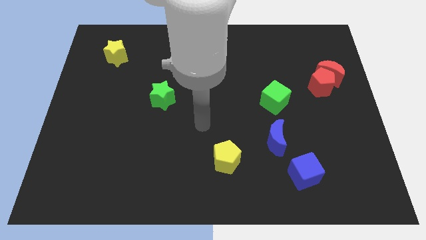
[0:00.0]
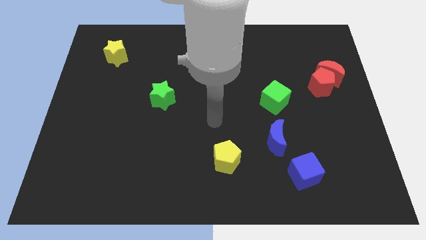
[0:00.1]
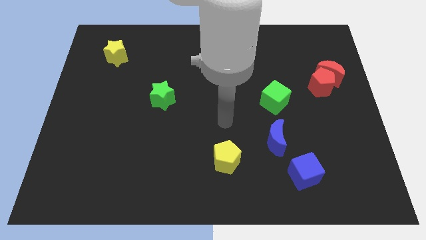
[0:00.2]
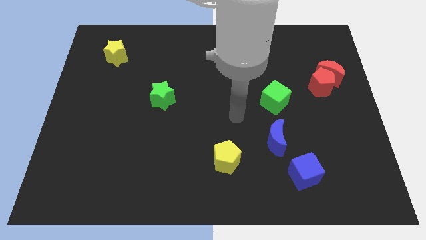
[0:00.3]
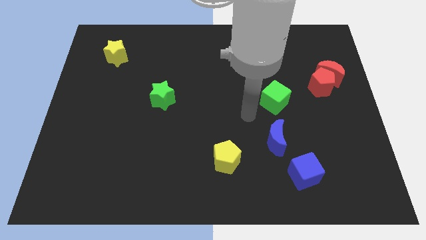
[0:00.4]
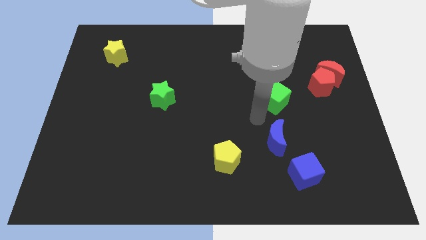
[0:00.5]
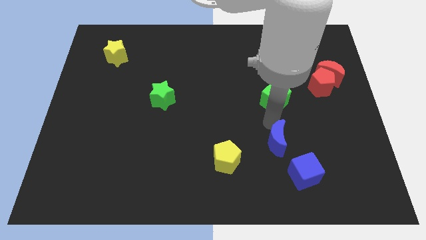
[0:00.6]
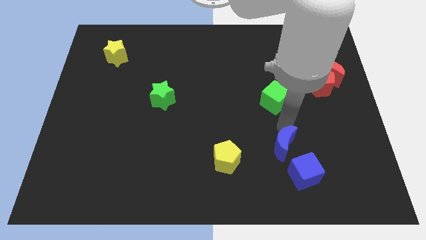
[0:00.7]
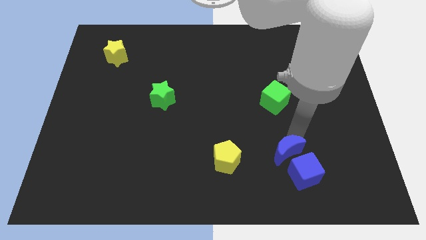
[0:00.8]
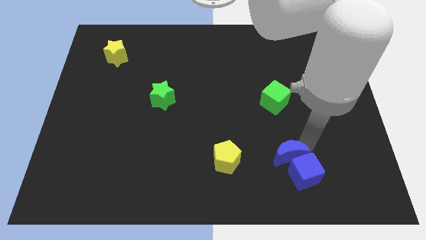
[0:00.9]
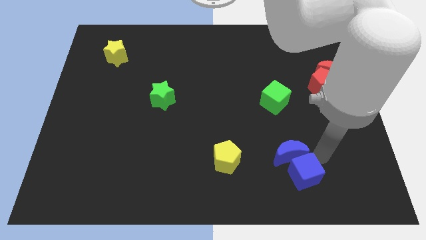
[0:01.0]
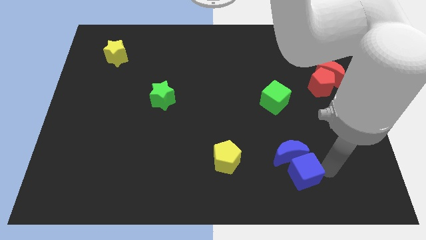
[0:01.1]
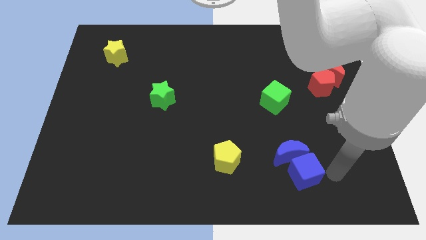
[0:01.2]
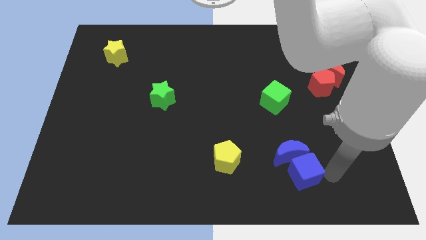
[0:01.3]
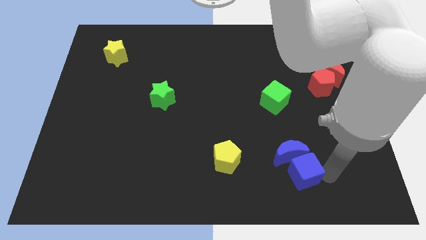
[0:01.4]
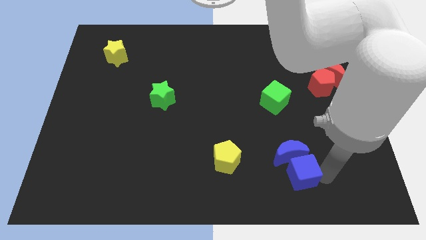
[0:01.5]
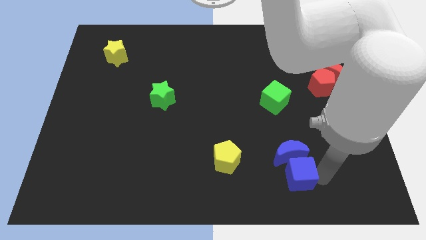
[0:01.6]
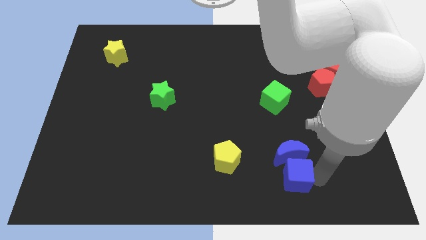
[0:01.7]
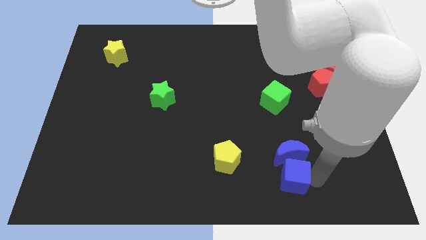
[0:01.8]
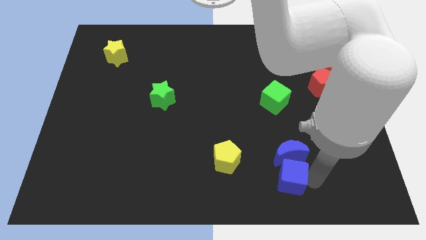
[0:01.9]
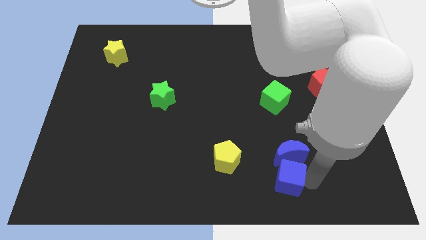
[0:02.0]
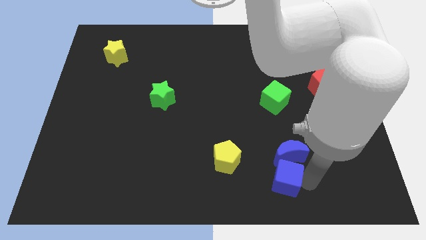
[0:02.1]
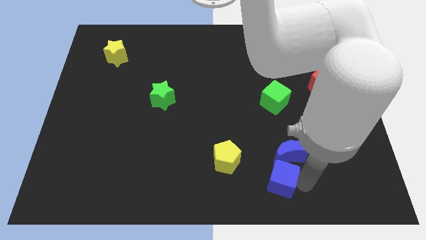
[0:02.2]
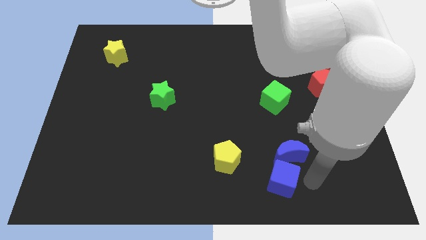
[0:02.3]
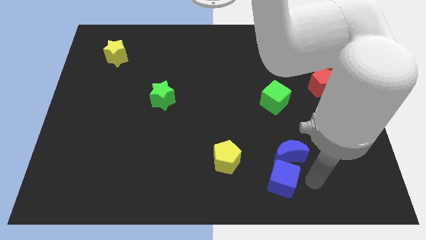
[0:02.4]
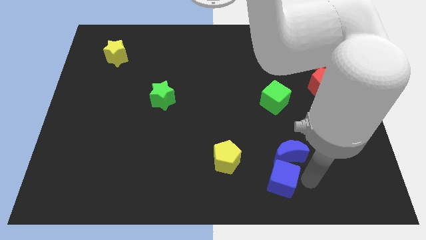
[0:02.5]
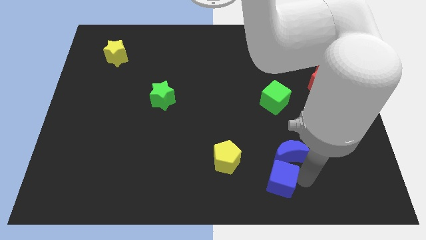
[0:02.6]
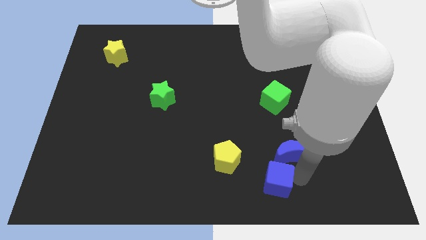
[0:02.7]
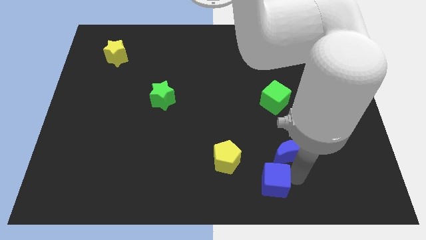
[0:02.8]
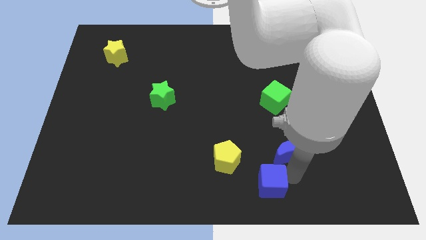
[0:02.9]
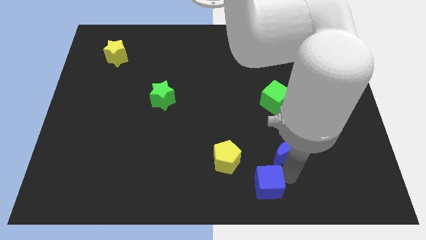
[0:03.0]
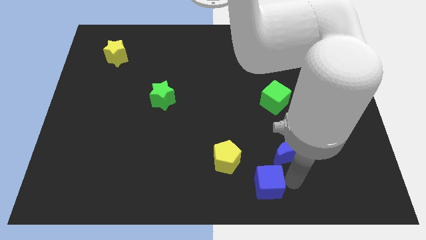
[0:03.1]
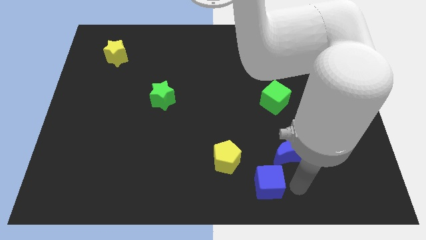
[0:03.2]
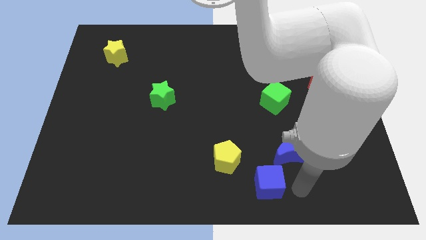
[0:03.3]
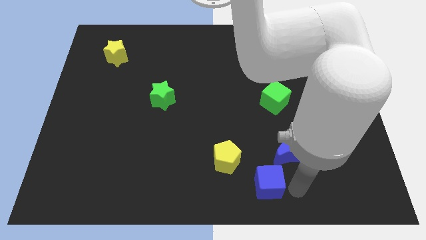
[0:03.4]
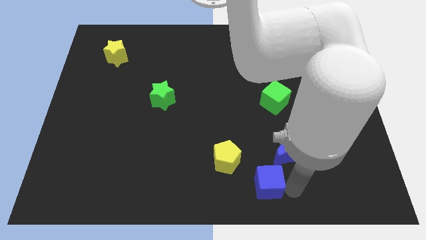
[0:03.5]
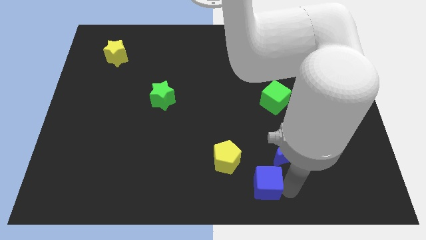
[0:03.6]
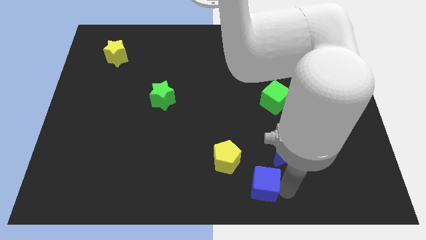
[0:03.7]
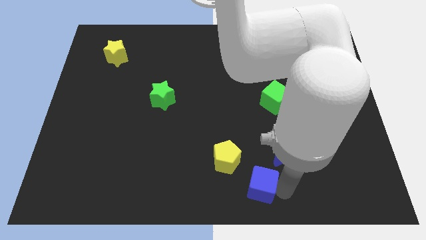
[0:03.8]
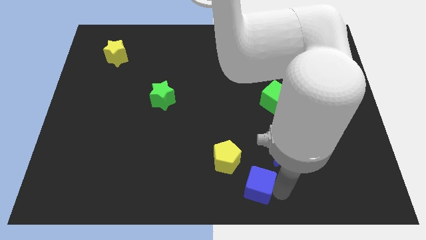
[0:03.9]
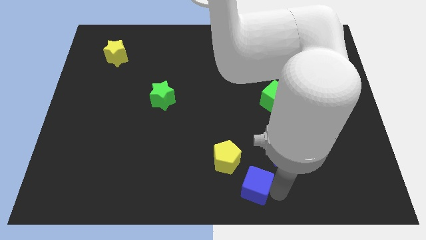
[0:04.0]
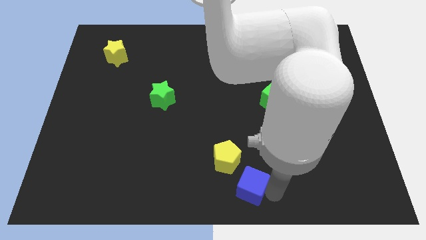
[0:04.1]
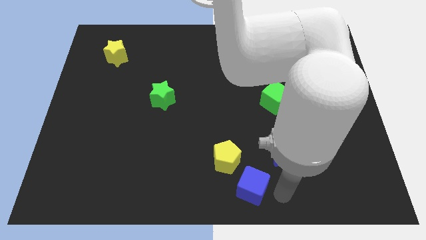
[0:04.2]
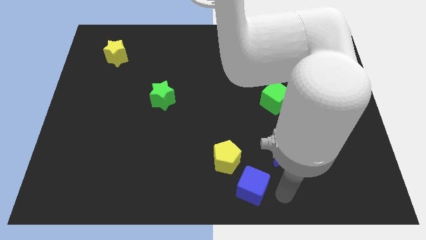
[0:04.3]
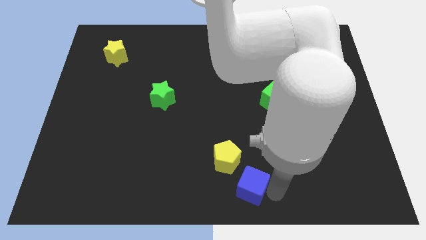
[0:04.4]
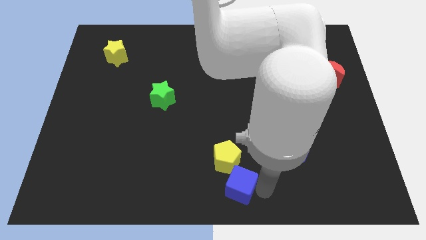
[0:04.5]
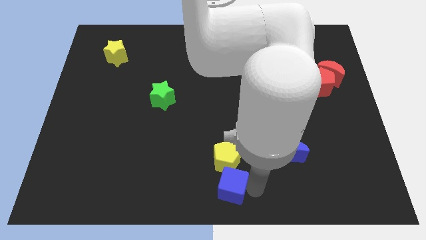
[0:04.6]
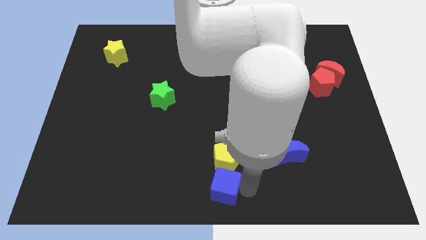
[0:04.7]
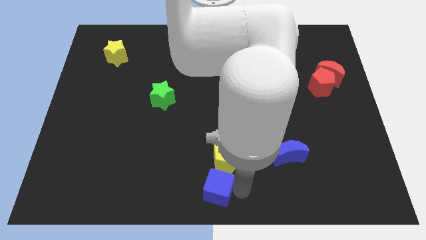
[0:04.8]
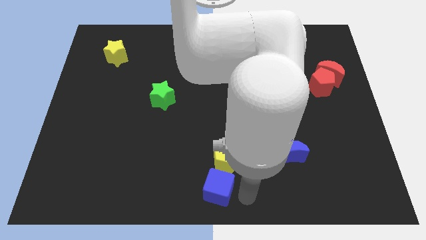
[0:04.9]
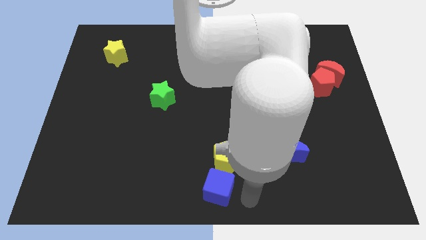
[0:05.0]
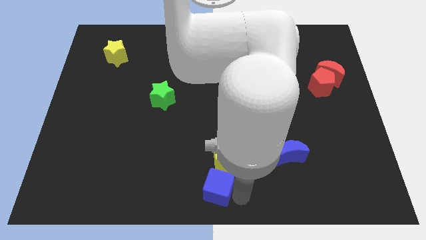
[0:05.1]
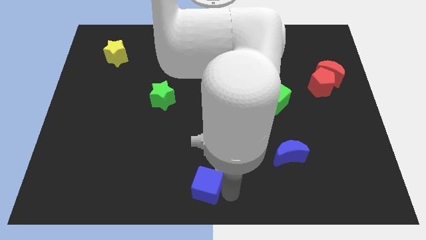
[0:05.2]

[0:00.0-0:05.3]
slide the blue cube to the left

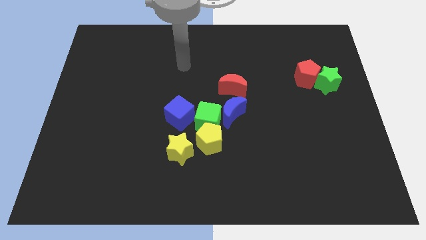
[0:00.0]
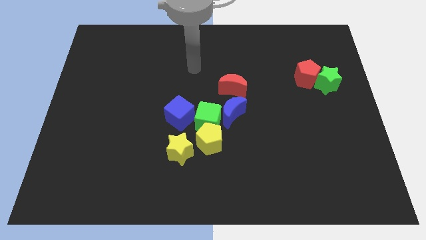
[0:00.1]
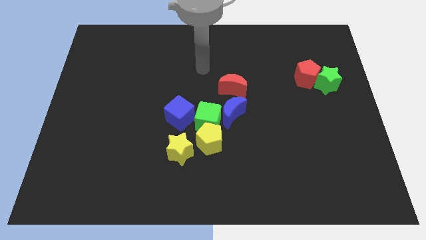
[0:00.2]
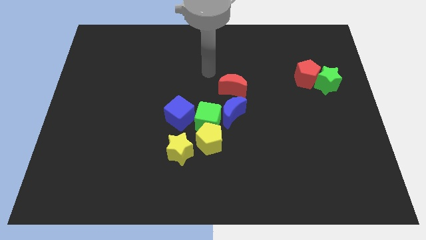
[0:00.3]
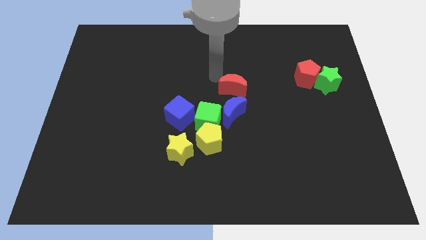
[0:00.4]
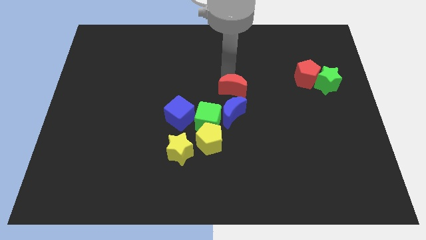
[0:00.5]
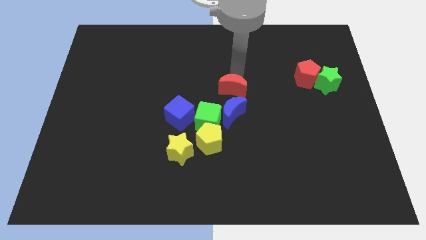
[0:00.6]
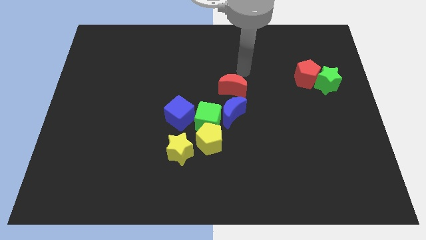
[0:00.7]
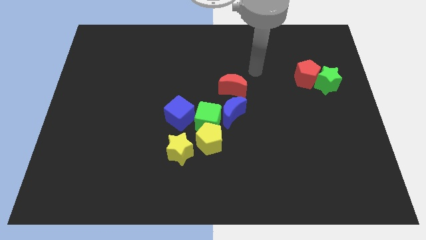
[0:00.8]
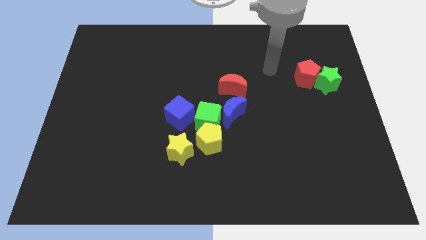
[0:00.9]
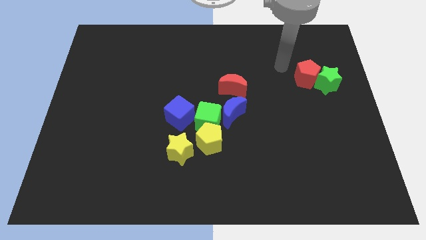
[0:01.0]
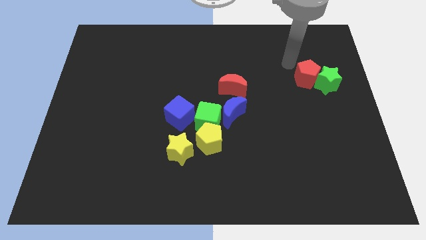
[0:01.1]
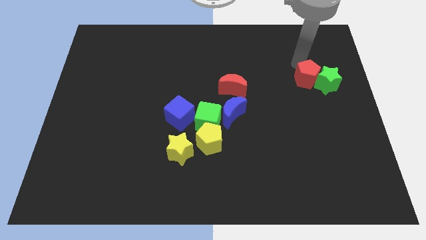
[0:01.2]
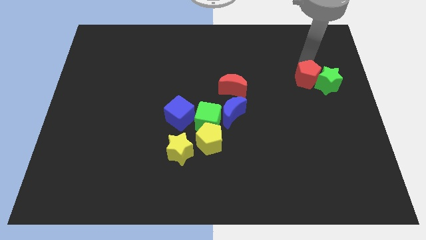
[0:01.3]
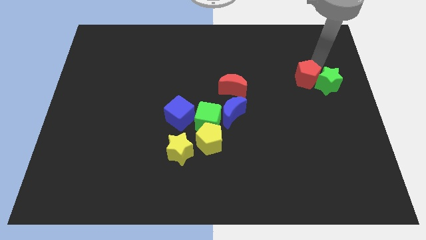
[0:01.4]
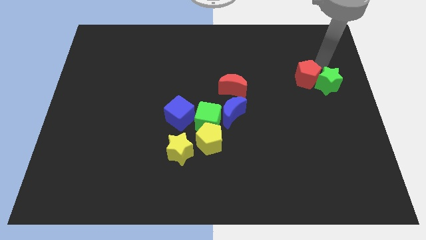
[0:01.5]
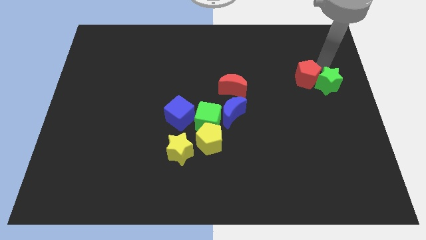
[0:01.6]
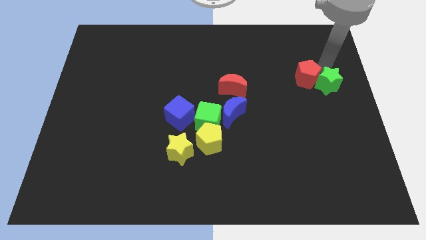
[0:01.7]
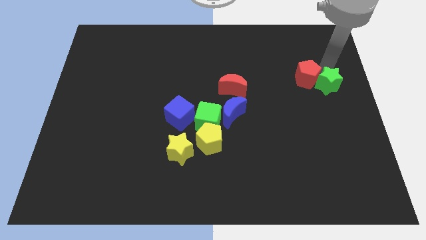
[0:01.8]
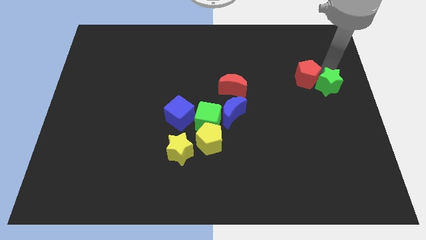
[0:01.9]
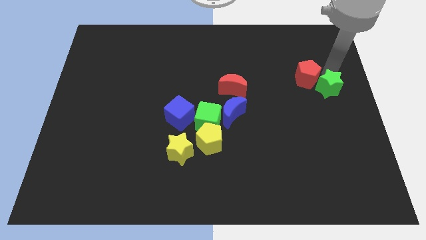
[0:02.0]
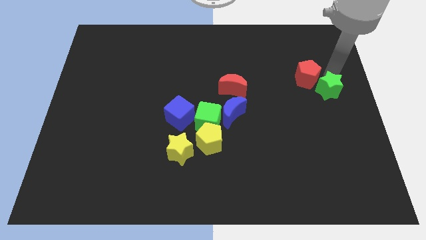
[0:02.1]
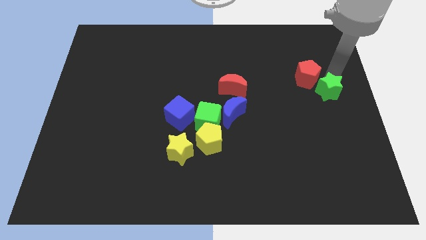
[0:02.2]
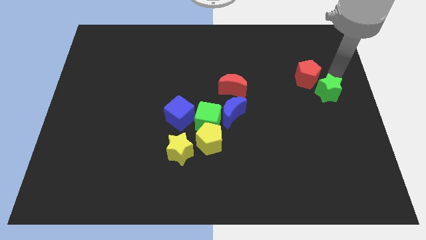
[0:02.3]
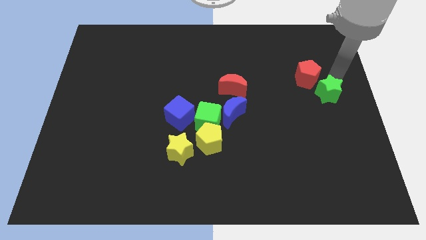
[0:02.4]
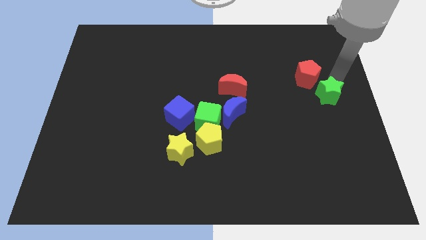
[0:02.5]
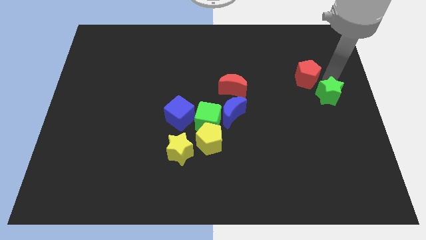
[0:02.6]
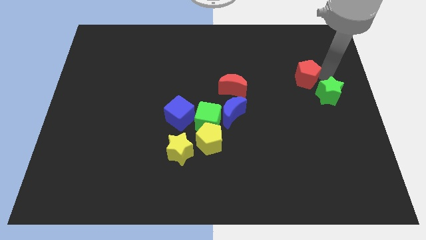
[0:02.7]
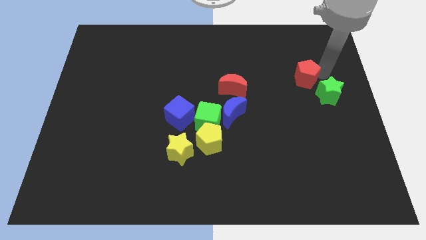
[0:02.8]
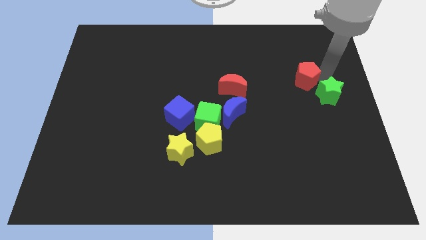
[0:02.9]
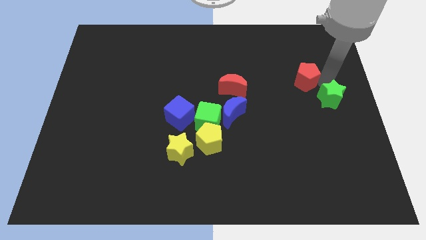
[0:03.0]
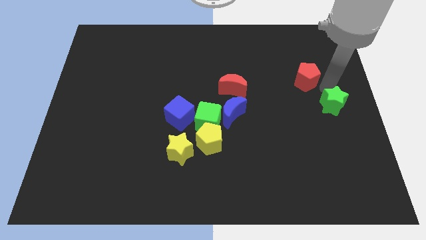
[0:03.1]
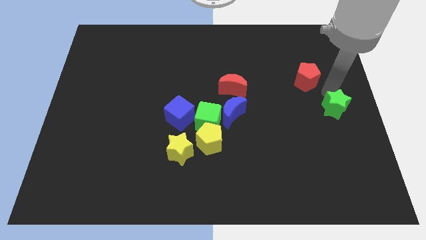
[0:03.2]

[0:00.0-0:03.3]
move the green star downwards a little
